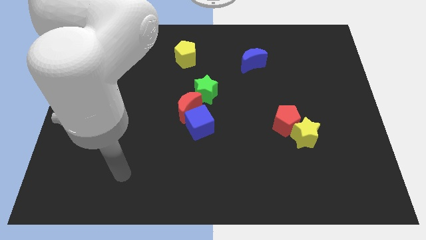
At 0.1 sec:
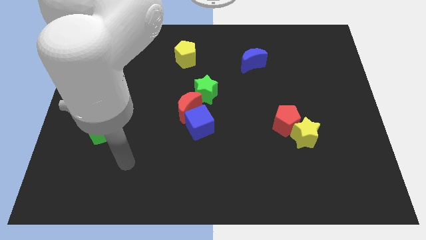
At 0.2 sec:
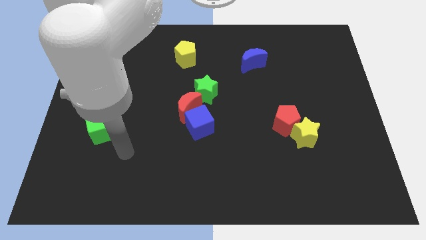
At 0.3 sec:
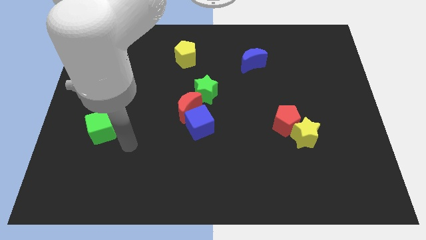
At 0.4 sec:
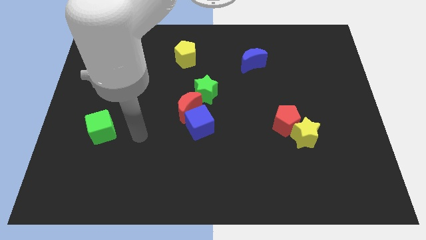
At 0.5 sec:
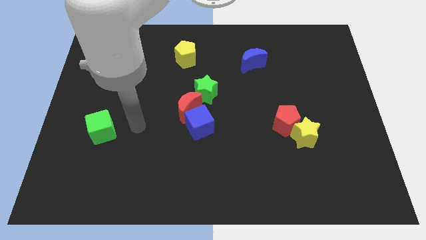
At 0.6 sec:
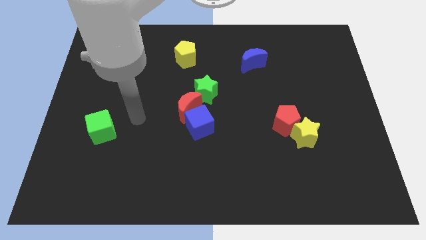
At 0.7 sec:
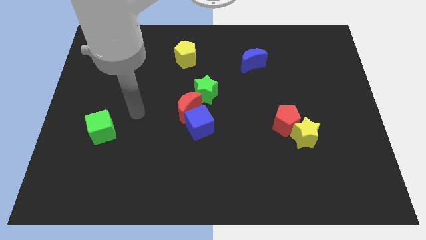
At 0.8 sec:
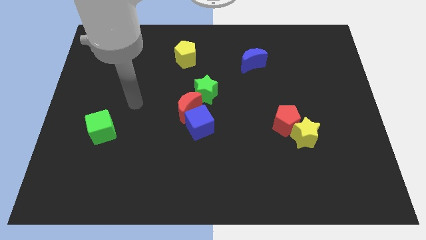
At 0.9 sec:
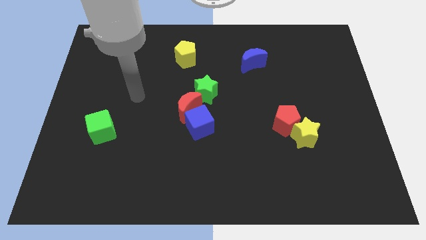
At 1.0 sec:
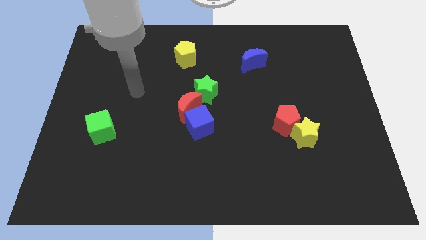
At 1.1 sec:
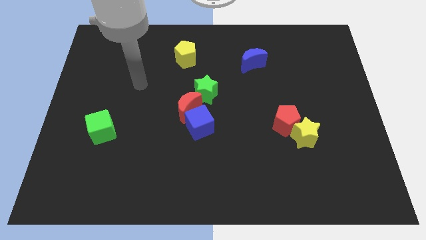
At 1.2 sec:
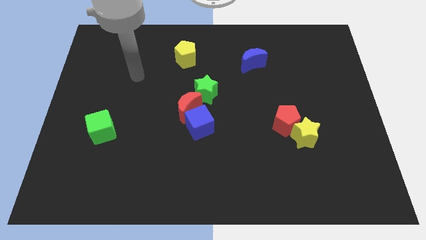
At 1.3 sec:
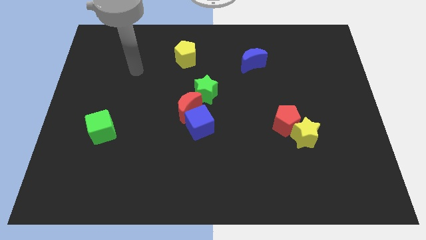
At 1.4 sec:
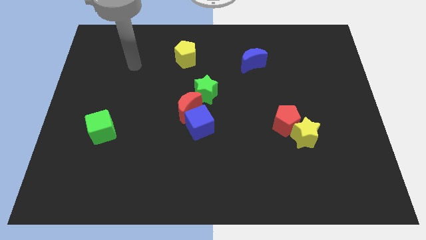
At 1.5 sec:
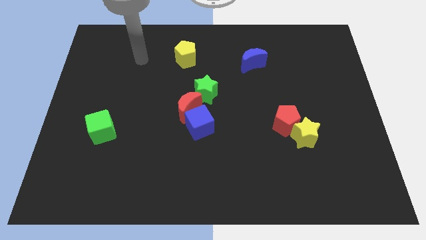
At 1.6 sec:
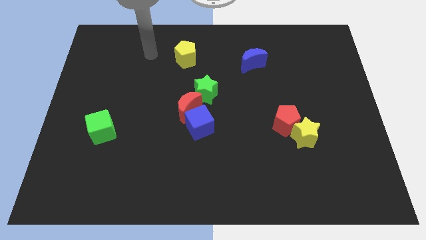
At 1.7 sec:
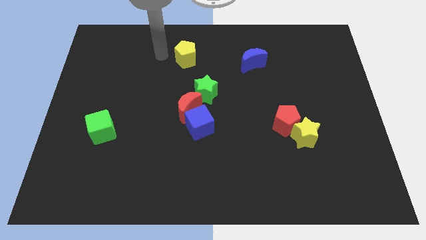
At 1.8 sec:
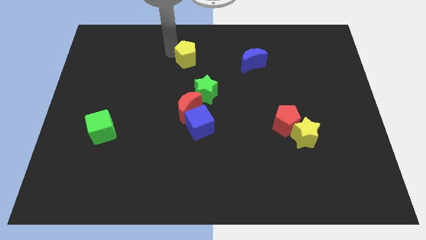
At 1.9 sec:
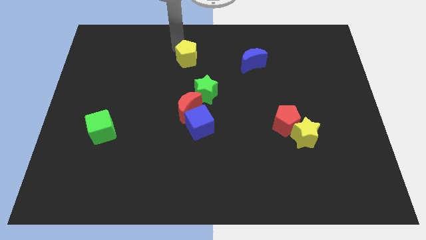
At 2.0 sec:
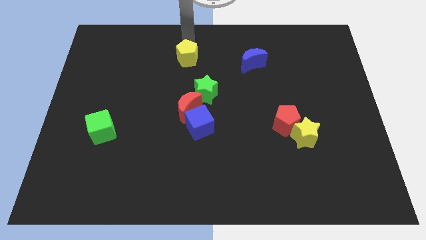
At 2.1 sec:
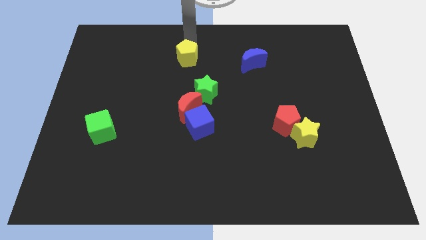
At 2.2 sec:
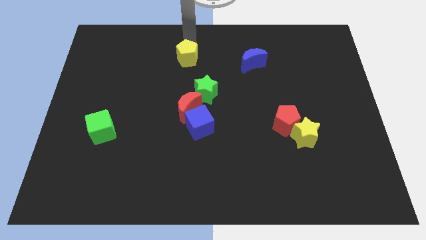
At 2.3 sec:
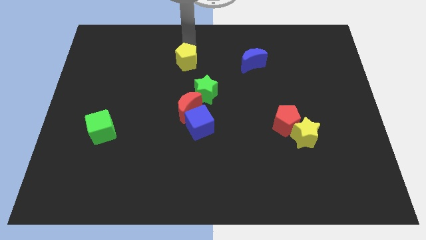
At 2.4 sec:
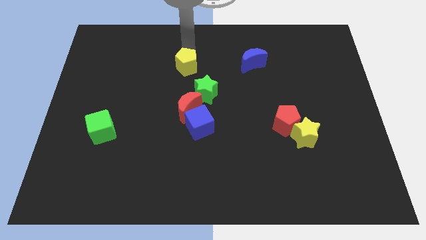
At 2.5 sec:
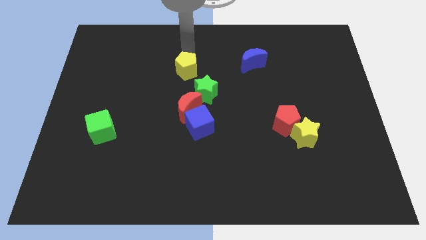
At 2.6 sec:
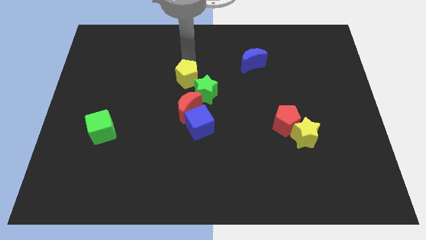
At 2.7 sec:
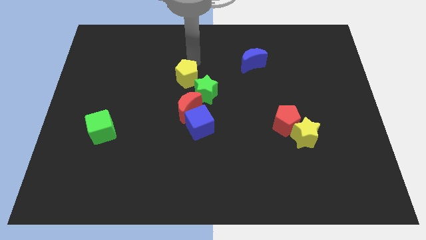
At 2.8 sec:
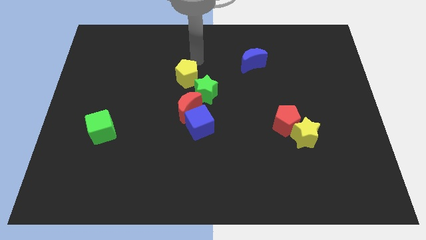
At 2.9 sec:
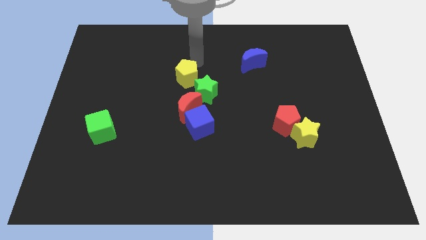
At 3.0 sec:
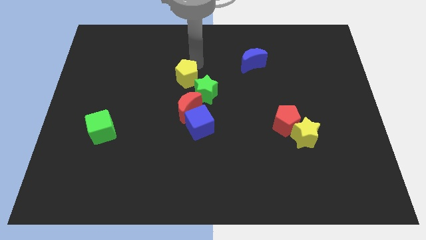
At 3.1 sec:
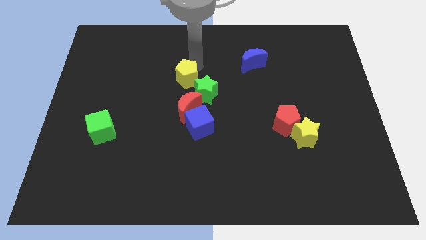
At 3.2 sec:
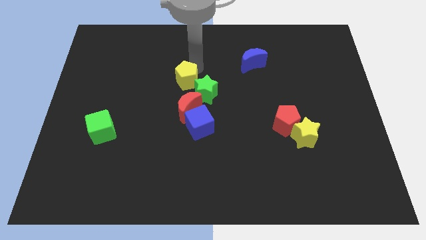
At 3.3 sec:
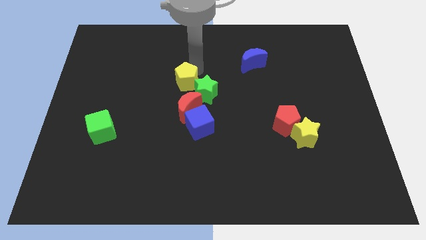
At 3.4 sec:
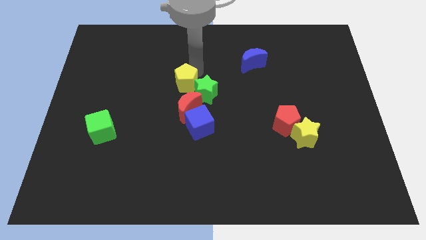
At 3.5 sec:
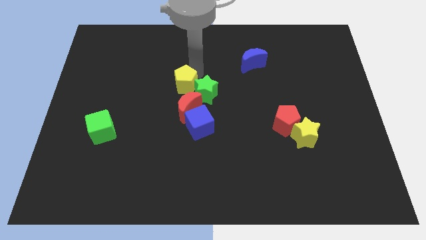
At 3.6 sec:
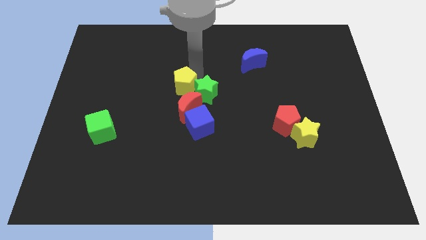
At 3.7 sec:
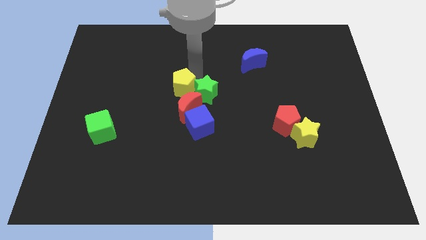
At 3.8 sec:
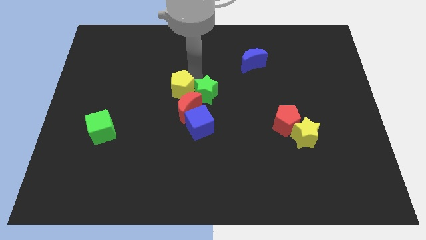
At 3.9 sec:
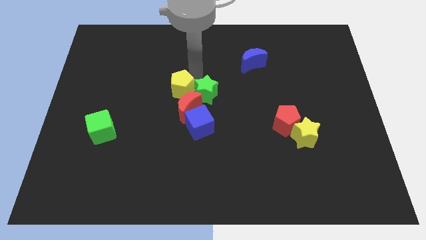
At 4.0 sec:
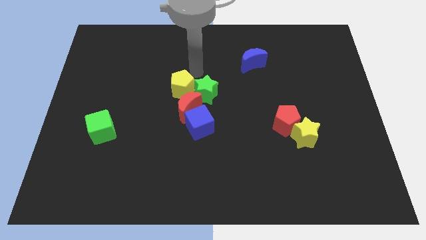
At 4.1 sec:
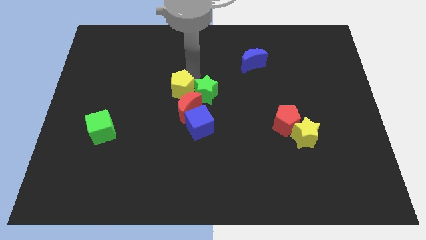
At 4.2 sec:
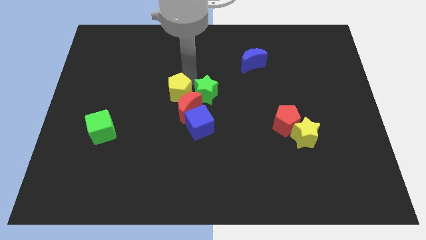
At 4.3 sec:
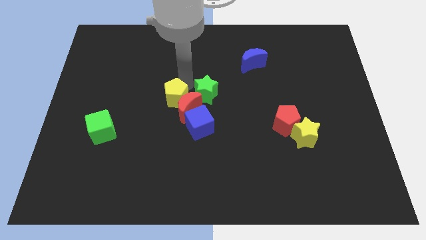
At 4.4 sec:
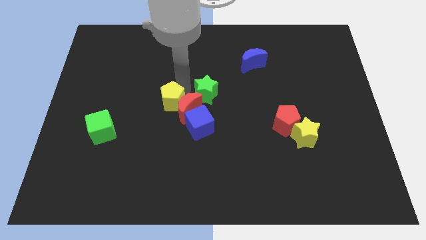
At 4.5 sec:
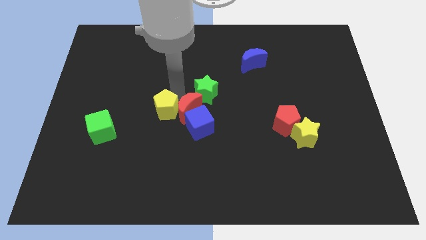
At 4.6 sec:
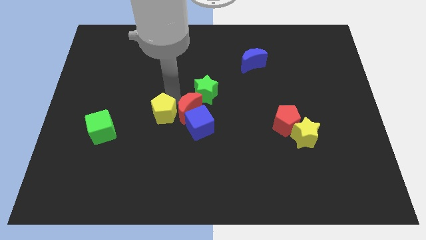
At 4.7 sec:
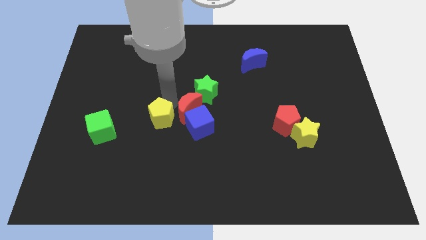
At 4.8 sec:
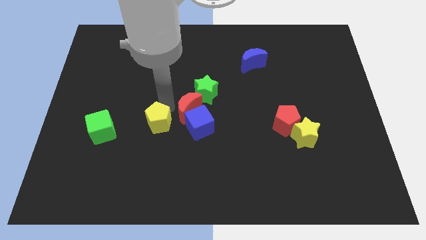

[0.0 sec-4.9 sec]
move the yellow pentagon down

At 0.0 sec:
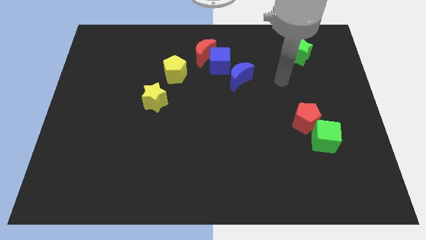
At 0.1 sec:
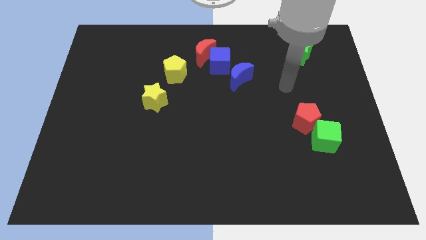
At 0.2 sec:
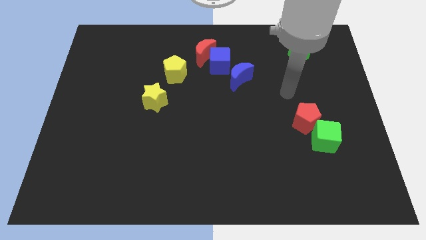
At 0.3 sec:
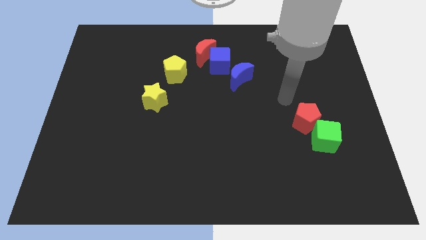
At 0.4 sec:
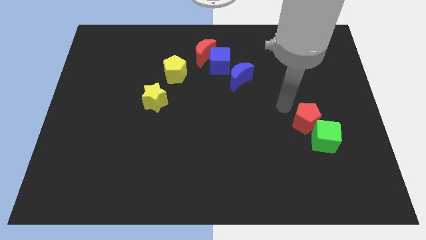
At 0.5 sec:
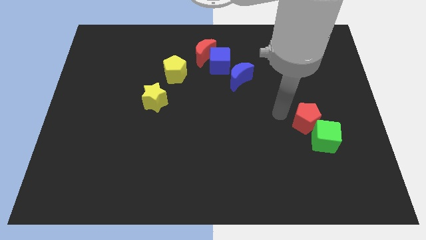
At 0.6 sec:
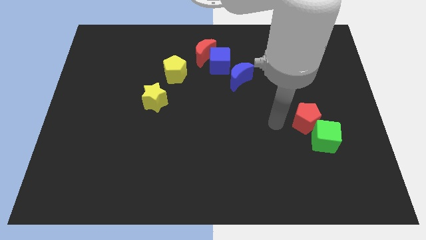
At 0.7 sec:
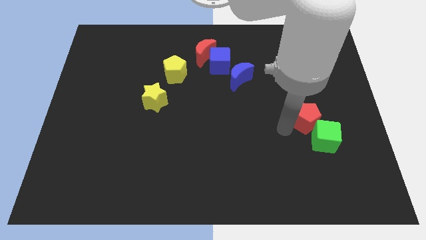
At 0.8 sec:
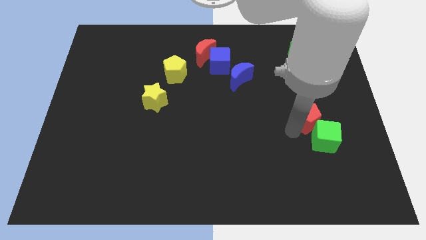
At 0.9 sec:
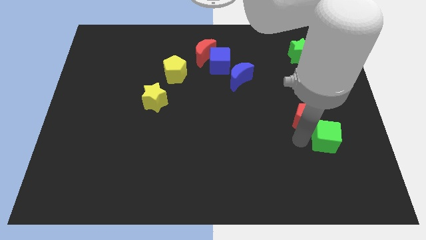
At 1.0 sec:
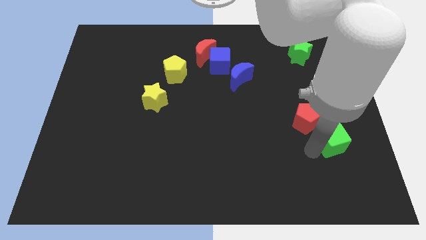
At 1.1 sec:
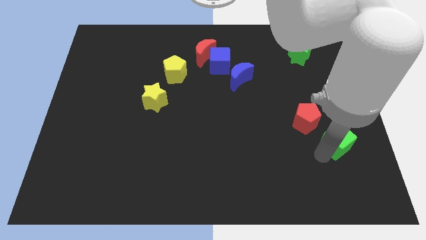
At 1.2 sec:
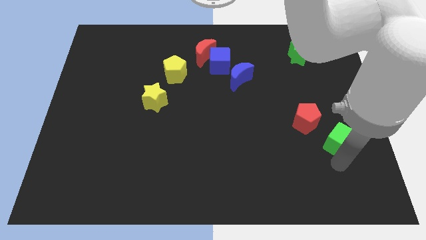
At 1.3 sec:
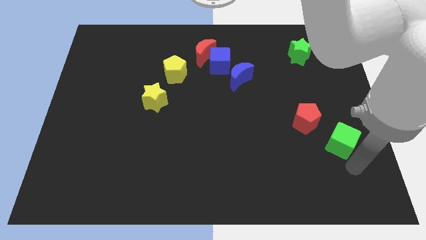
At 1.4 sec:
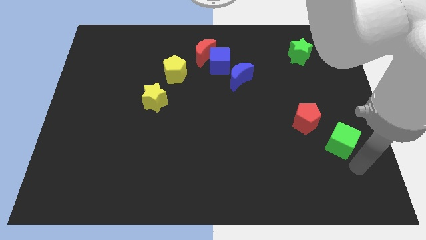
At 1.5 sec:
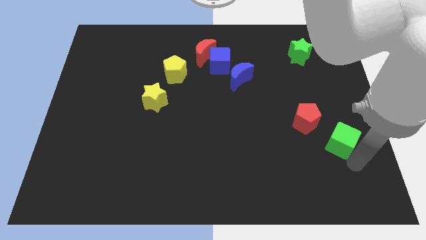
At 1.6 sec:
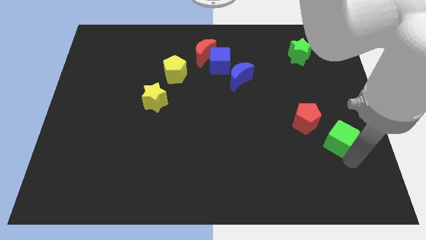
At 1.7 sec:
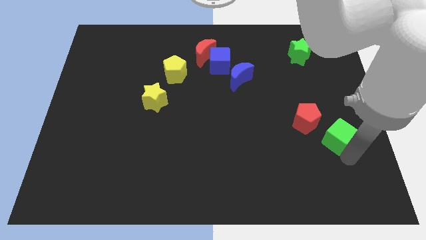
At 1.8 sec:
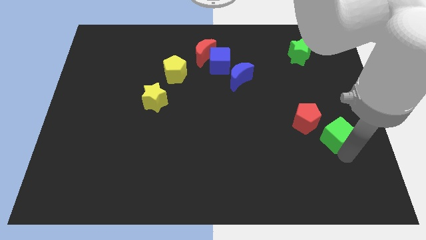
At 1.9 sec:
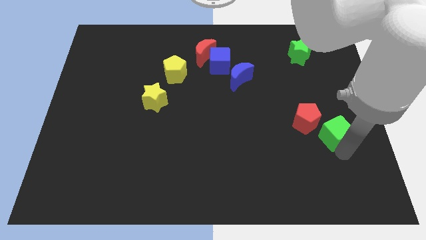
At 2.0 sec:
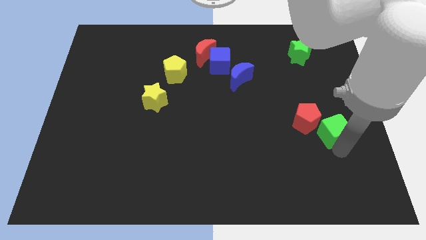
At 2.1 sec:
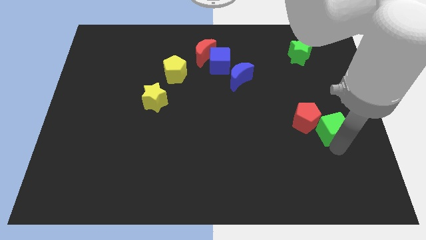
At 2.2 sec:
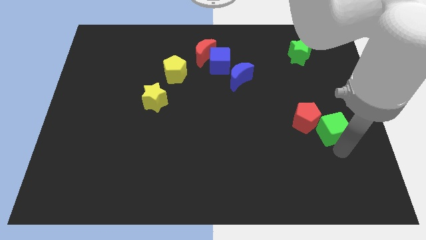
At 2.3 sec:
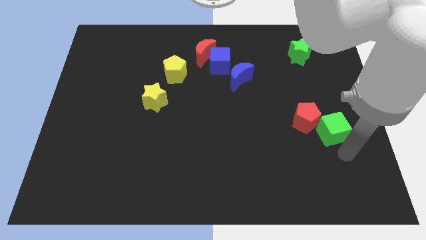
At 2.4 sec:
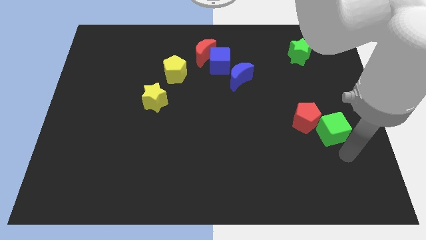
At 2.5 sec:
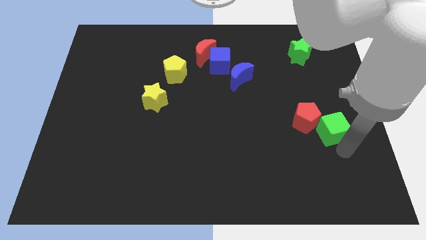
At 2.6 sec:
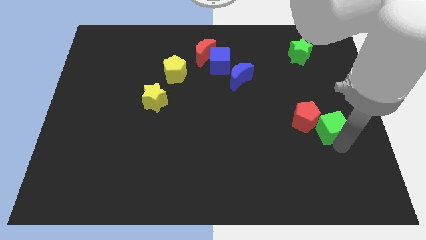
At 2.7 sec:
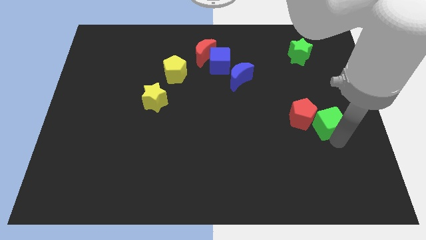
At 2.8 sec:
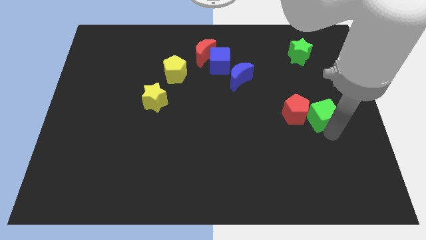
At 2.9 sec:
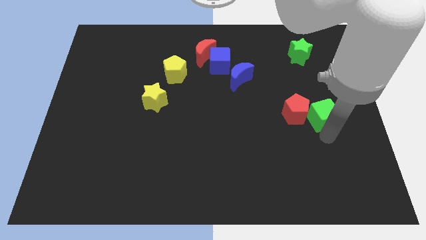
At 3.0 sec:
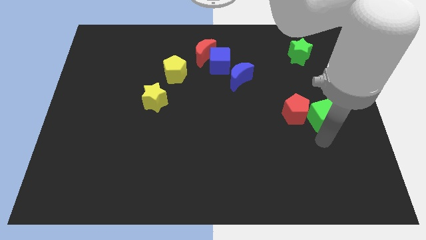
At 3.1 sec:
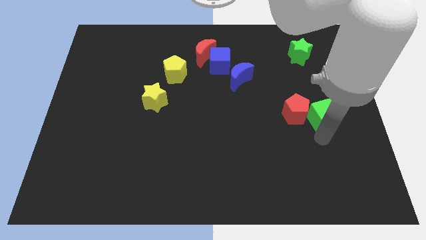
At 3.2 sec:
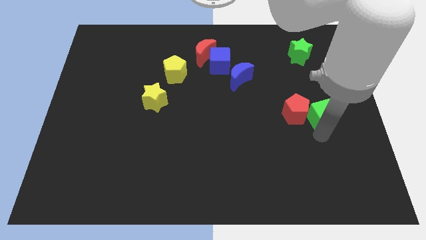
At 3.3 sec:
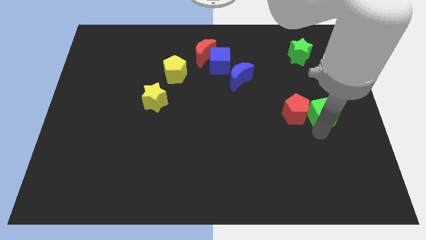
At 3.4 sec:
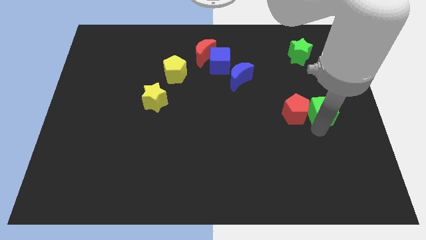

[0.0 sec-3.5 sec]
slightly slide the green cube up
